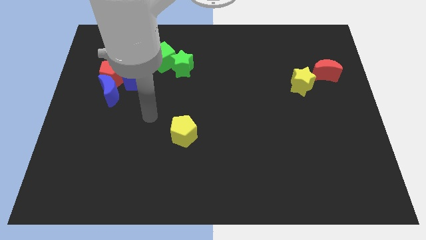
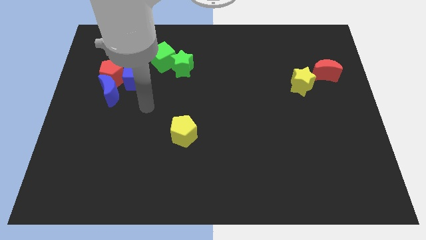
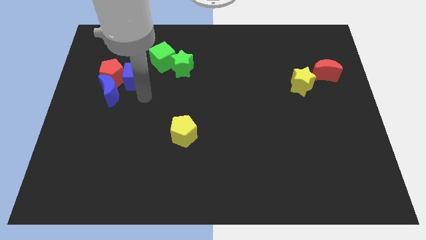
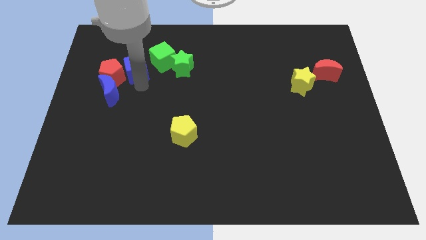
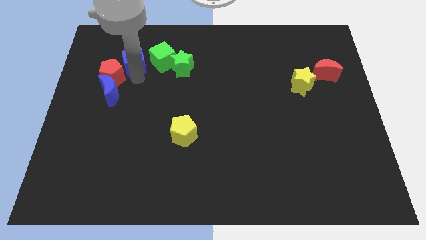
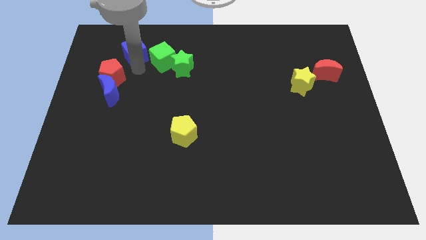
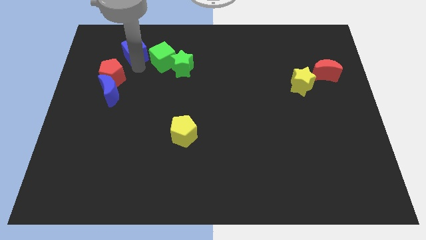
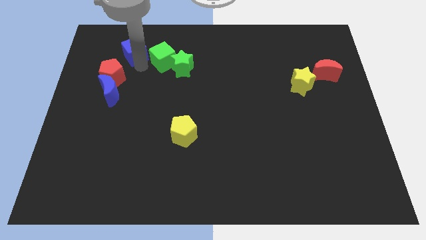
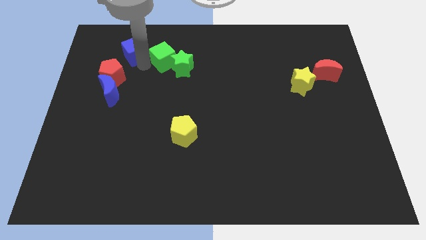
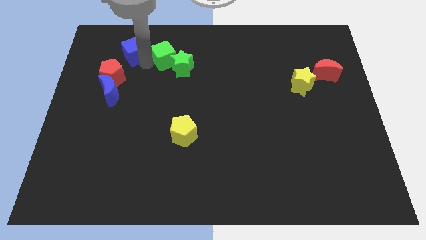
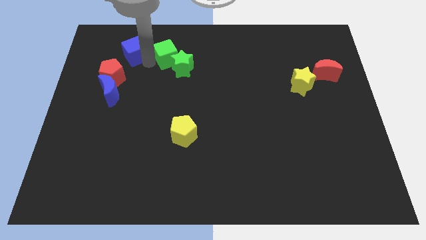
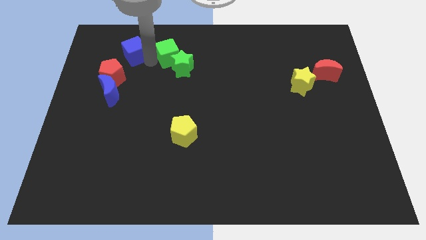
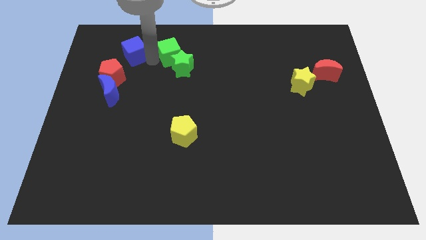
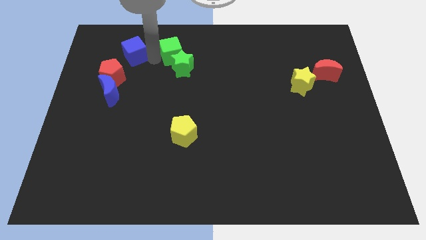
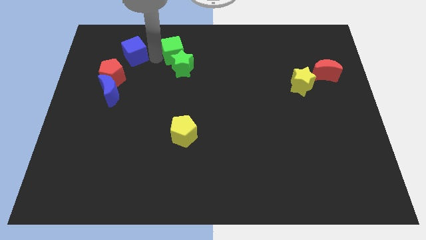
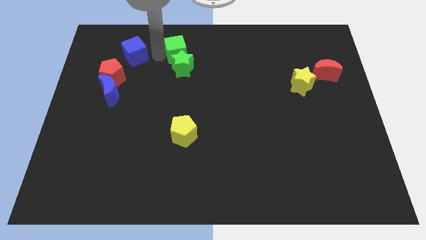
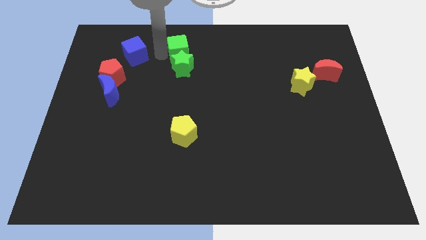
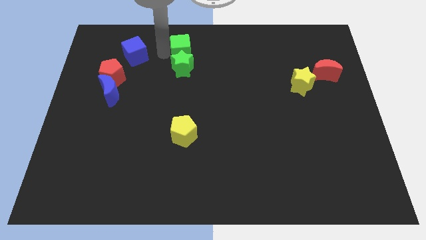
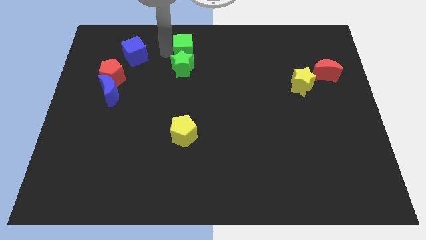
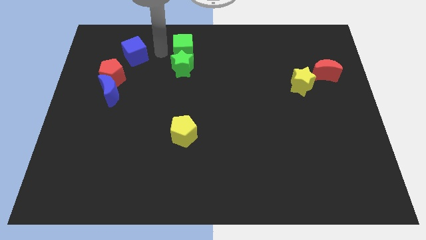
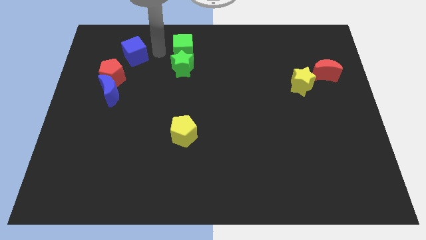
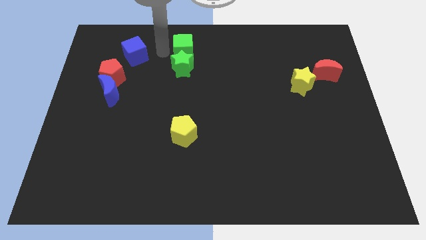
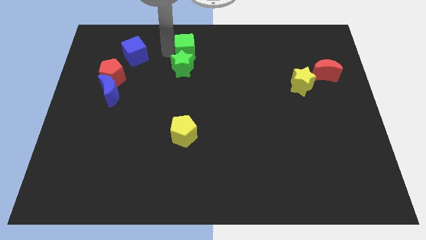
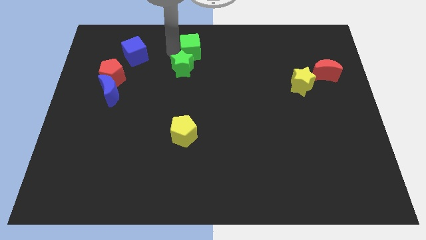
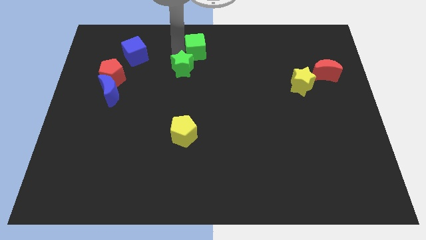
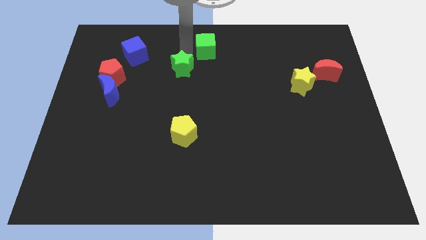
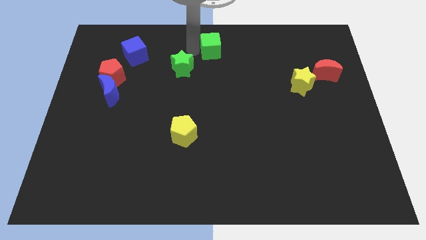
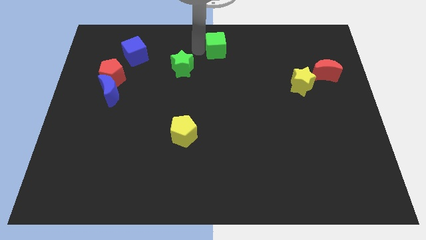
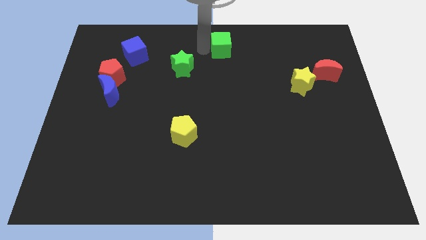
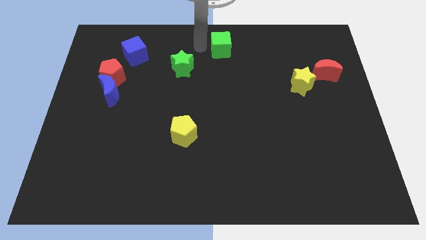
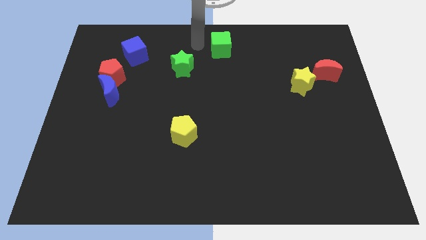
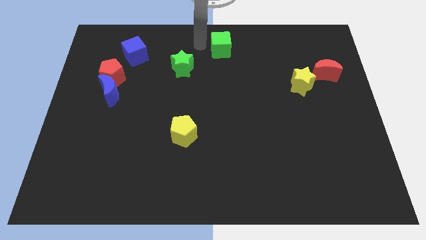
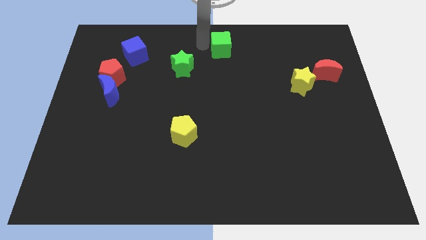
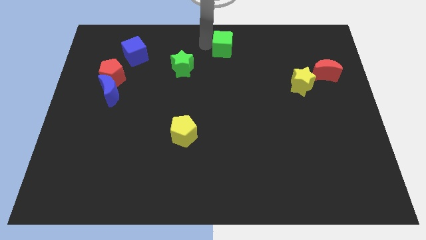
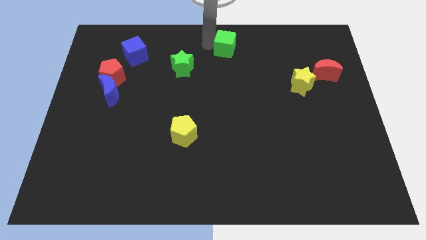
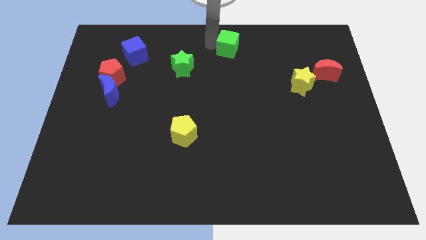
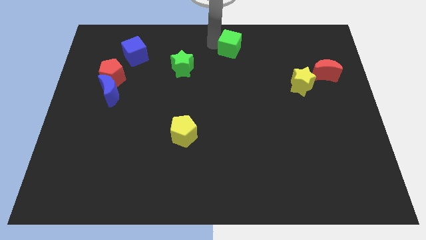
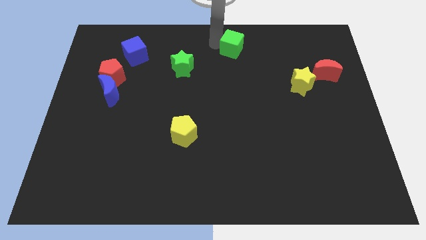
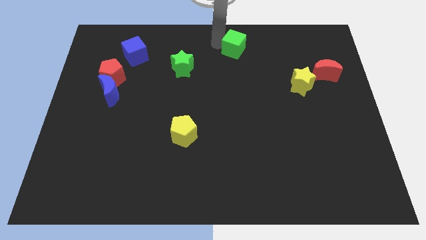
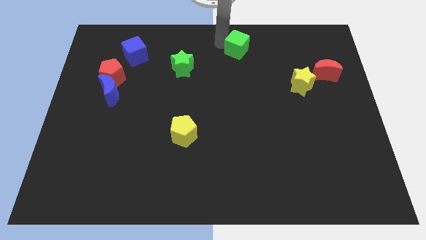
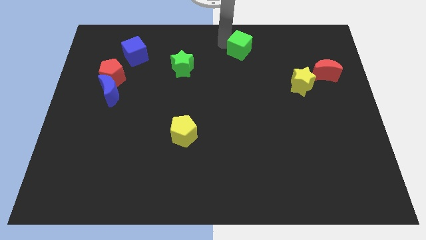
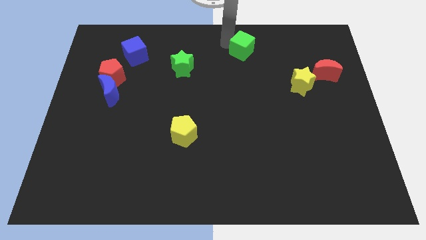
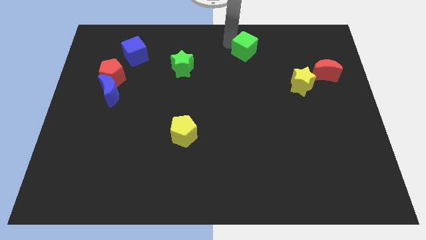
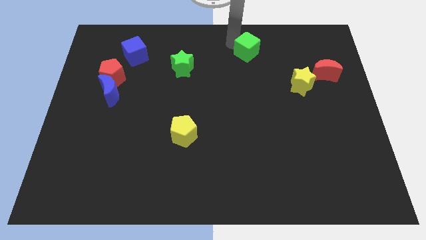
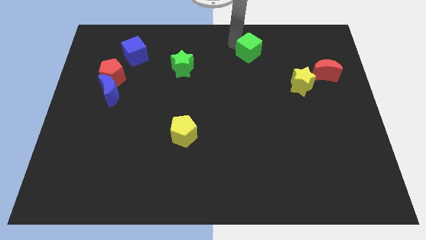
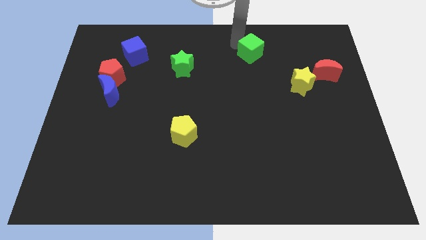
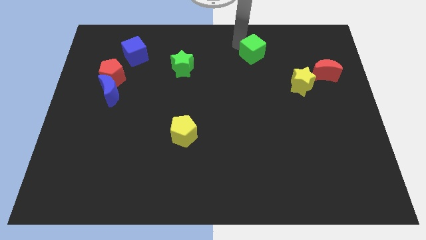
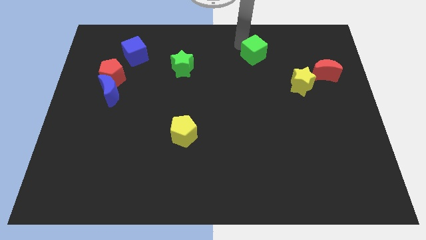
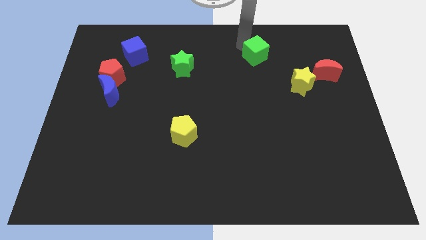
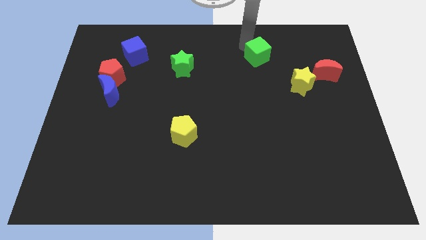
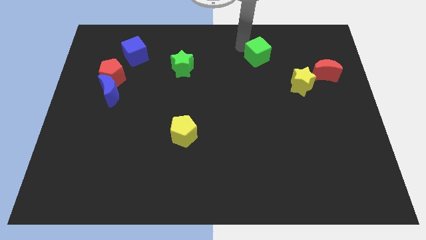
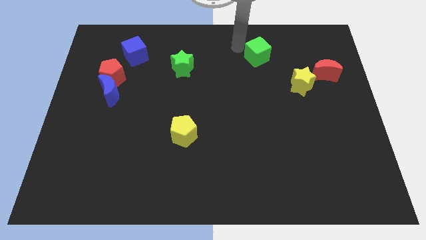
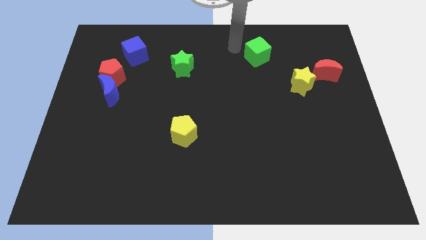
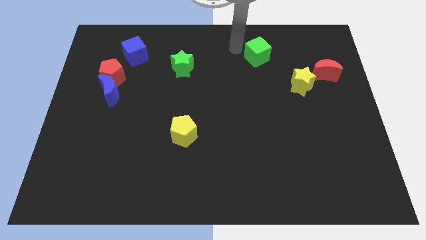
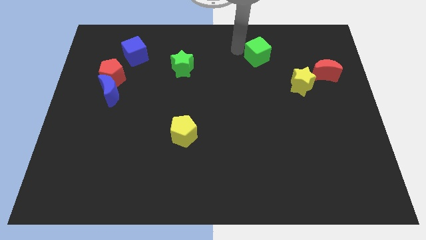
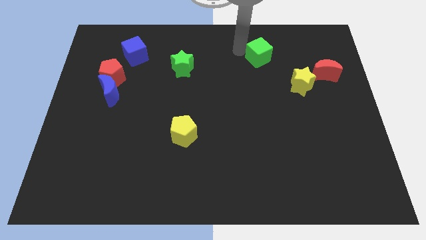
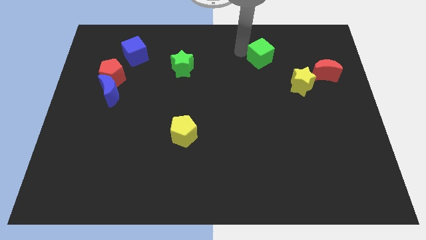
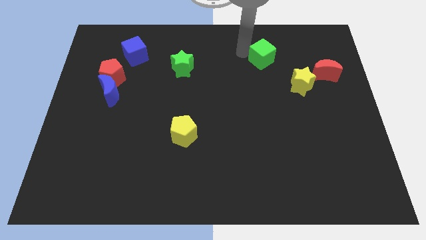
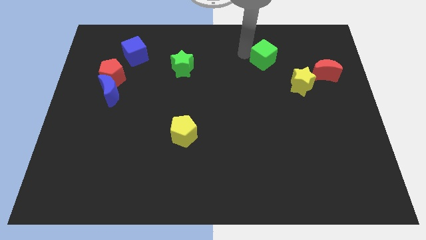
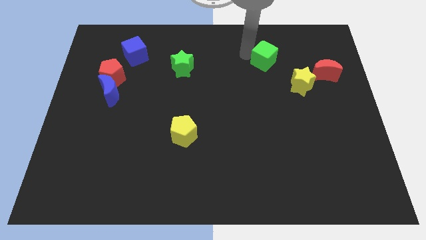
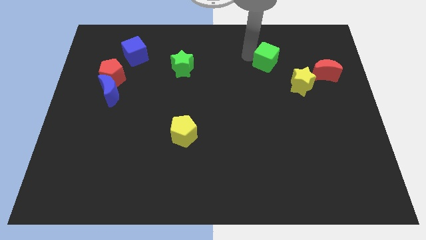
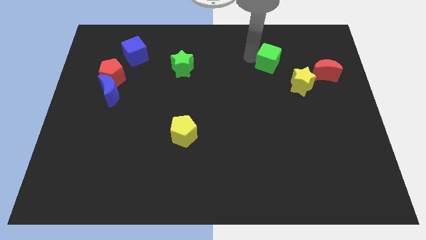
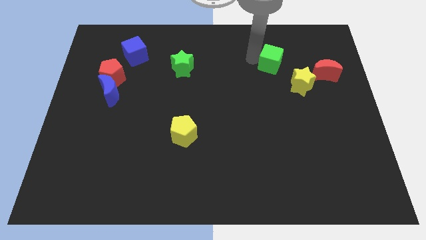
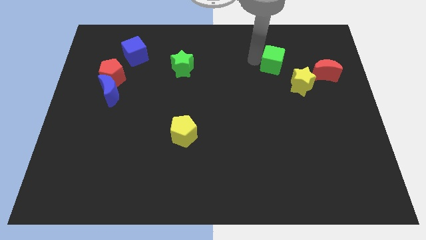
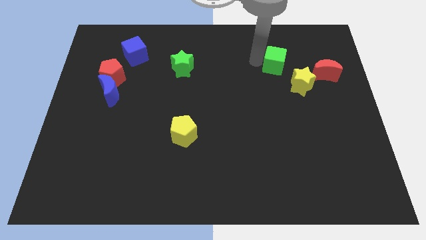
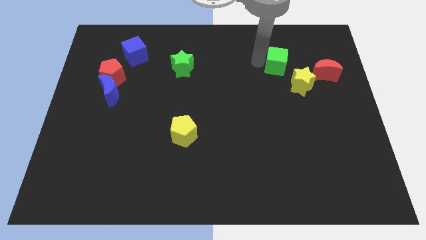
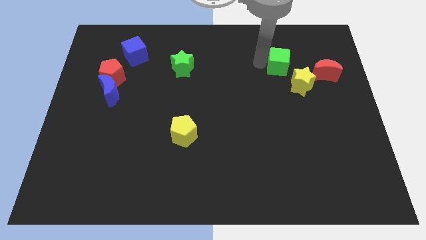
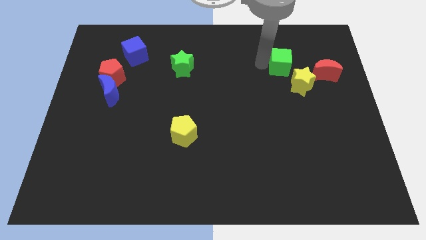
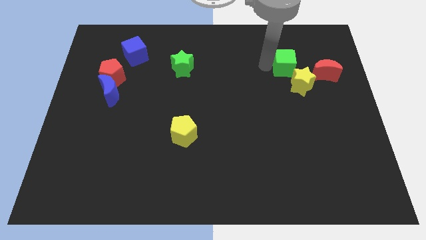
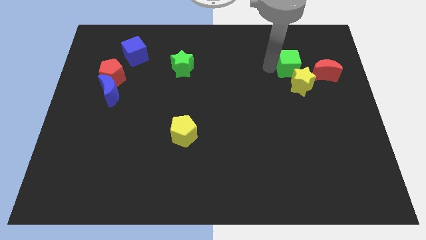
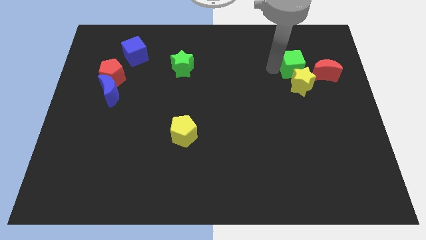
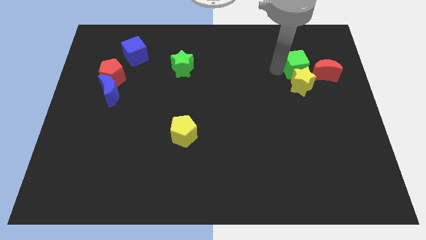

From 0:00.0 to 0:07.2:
push the green cube to the top right of the yellow star
